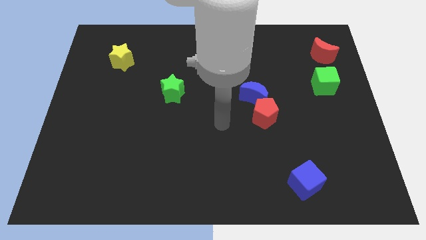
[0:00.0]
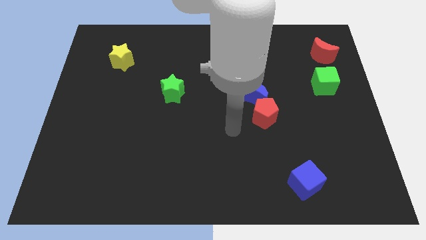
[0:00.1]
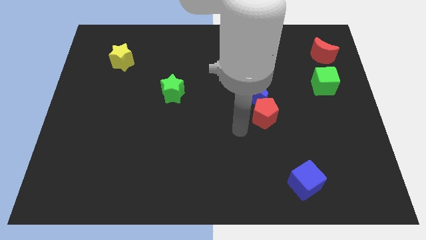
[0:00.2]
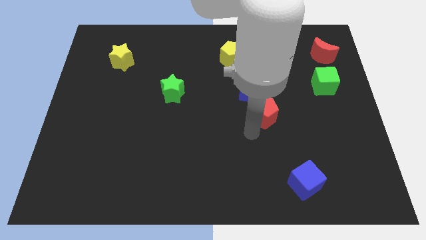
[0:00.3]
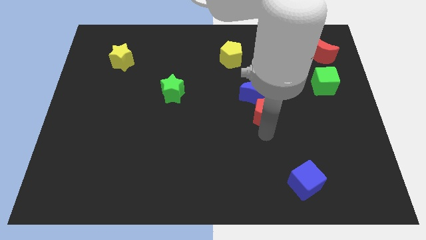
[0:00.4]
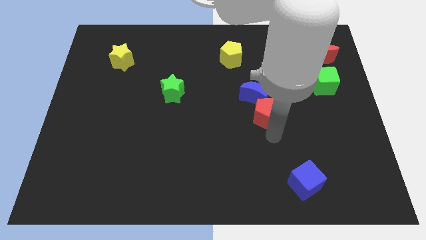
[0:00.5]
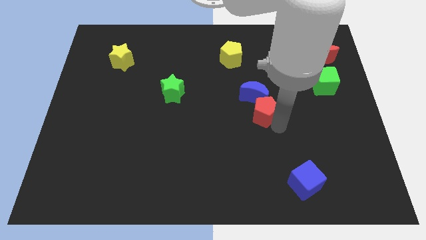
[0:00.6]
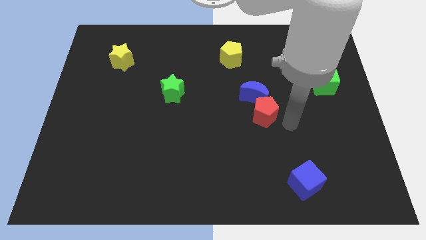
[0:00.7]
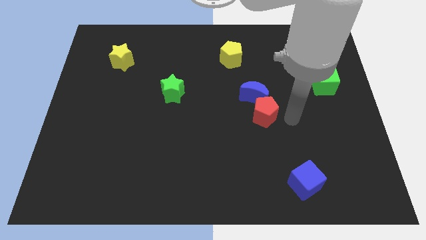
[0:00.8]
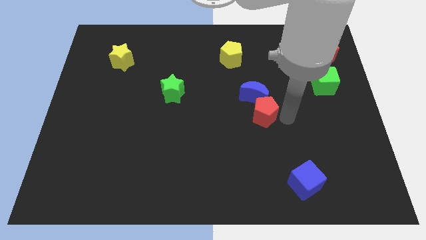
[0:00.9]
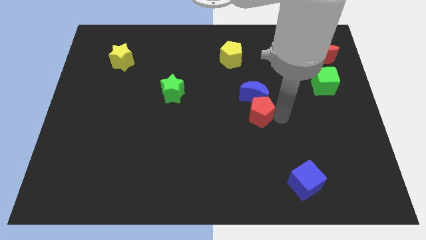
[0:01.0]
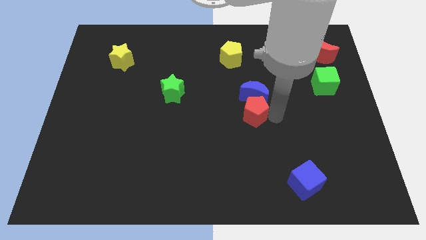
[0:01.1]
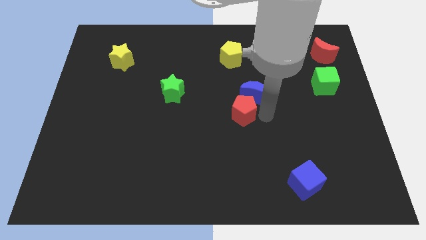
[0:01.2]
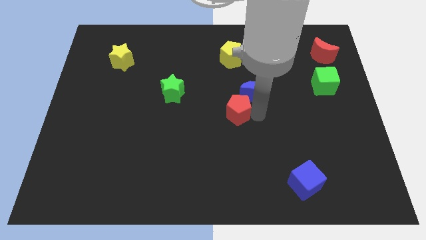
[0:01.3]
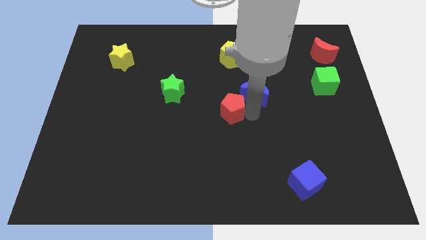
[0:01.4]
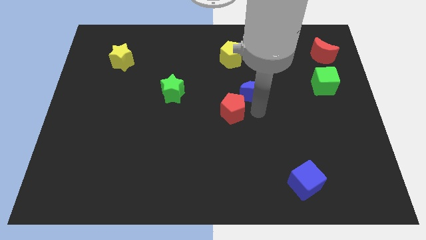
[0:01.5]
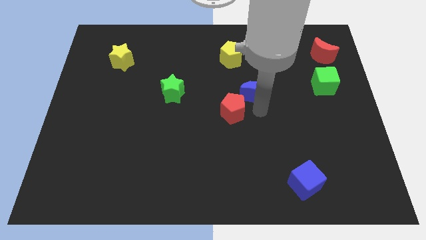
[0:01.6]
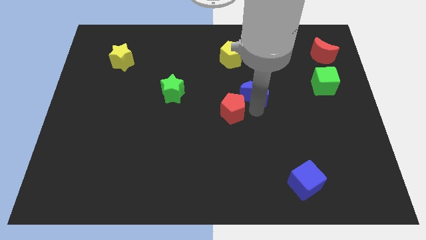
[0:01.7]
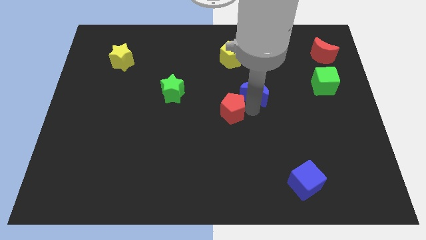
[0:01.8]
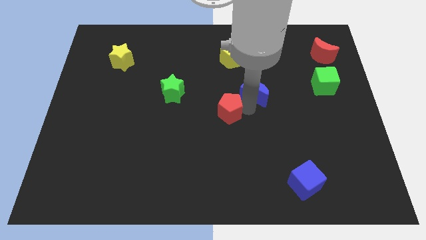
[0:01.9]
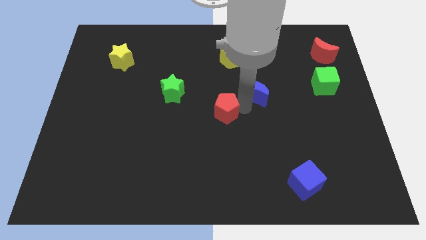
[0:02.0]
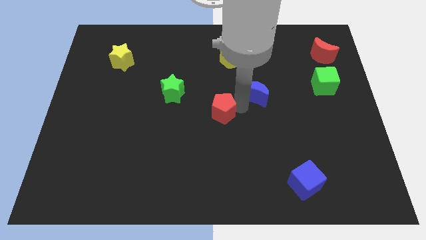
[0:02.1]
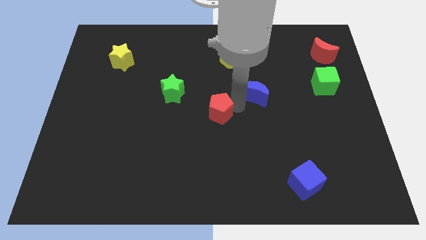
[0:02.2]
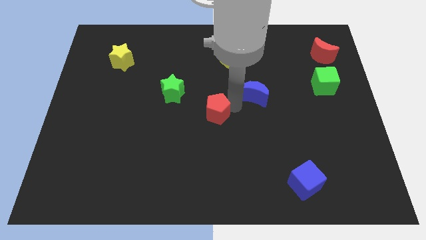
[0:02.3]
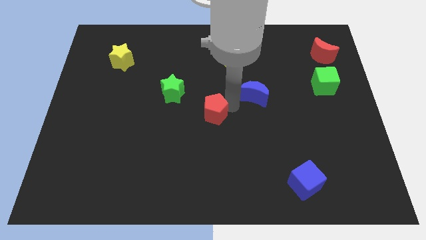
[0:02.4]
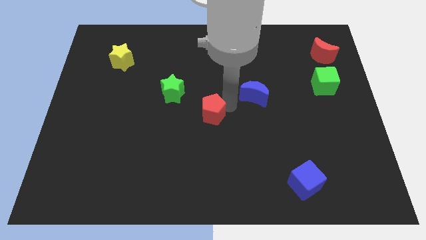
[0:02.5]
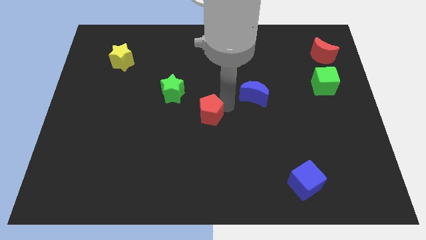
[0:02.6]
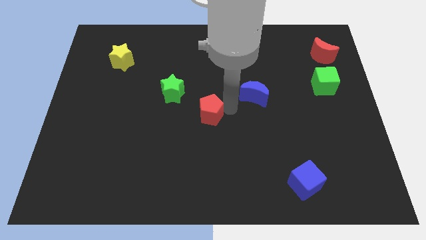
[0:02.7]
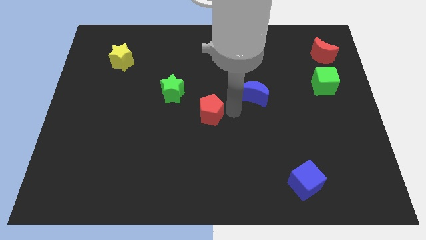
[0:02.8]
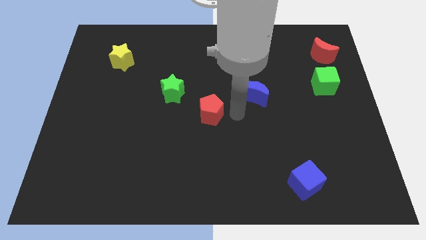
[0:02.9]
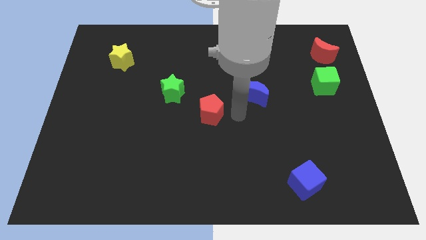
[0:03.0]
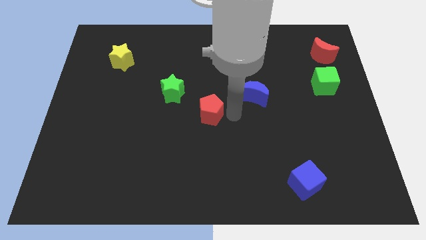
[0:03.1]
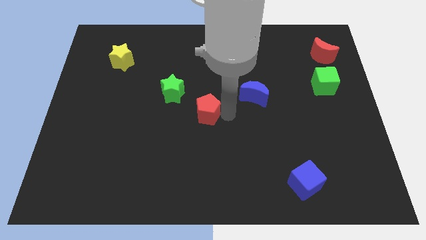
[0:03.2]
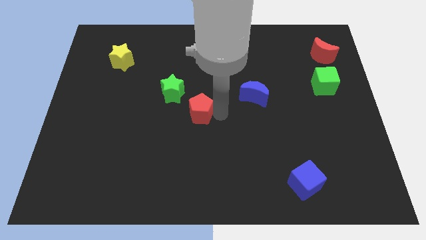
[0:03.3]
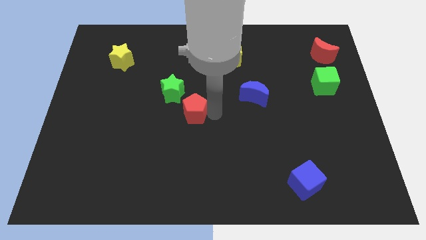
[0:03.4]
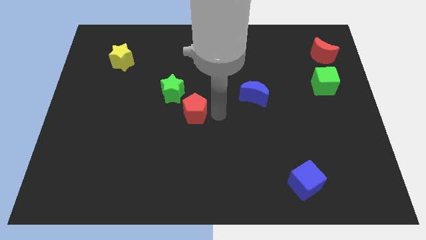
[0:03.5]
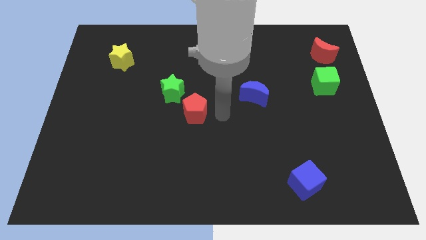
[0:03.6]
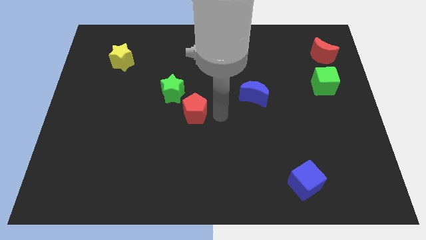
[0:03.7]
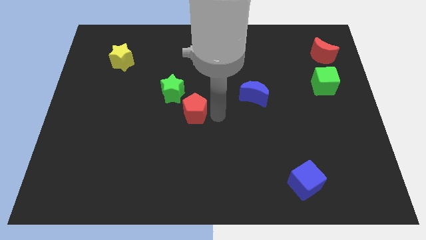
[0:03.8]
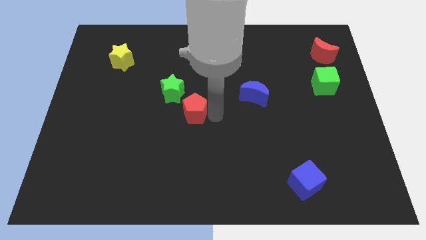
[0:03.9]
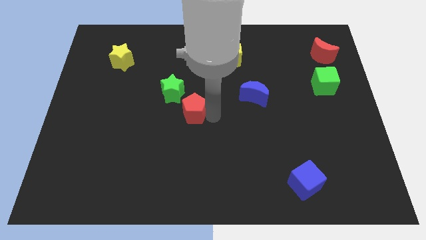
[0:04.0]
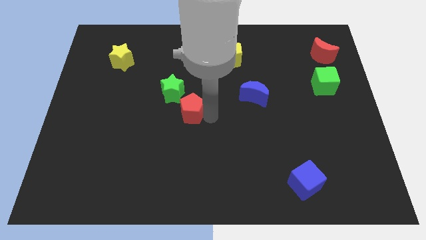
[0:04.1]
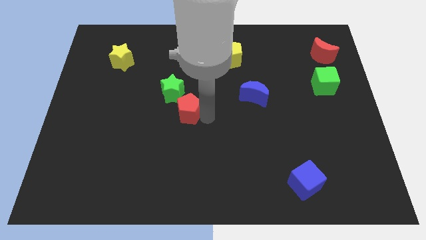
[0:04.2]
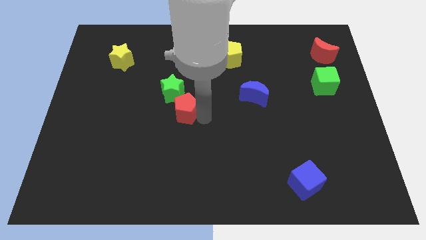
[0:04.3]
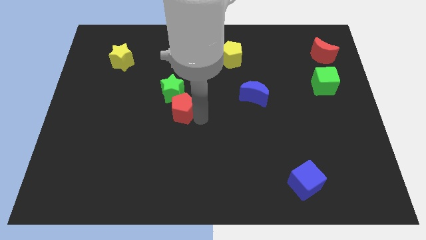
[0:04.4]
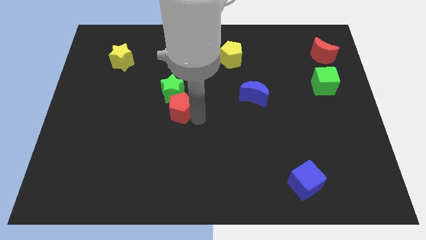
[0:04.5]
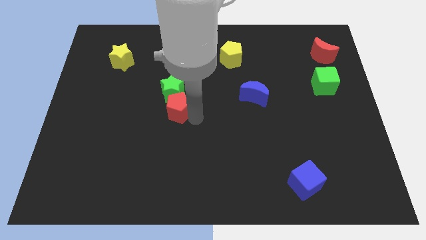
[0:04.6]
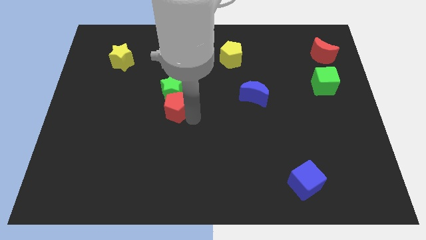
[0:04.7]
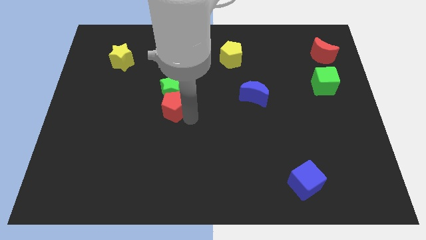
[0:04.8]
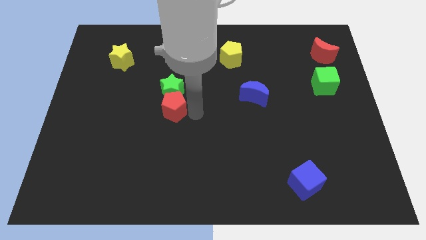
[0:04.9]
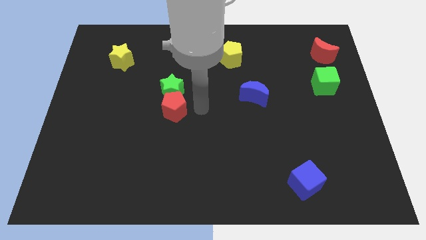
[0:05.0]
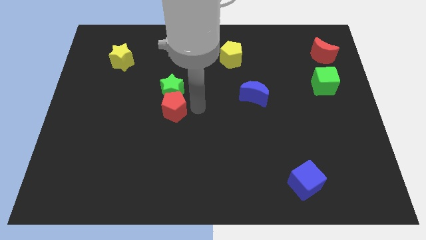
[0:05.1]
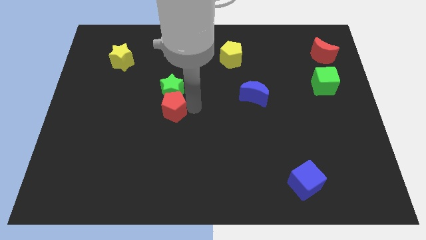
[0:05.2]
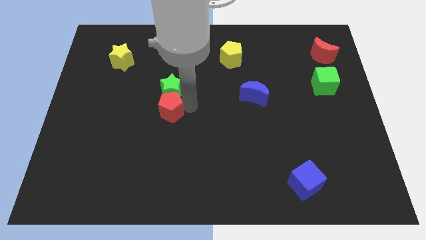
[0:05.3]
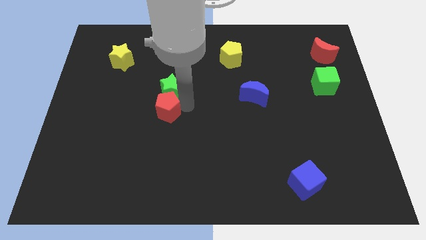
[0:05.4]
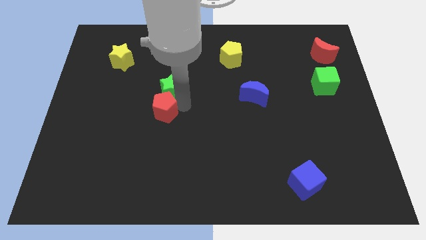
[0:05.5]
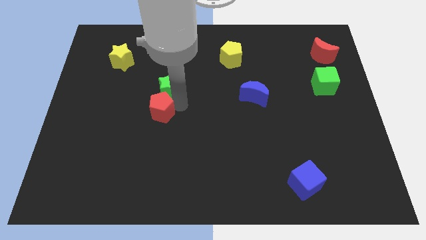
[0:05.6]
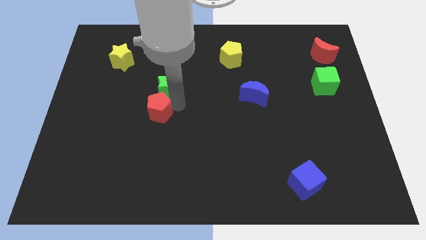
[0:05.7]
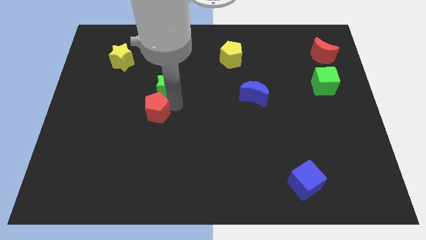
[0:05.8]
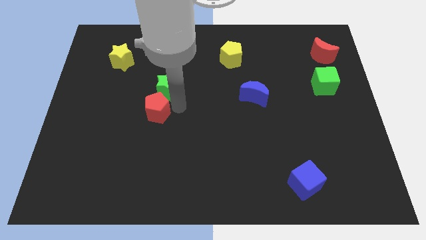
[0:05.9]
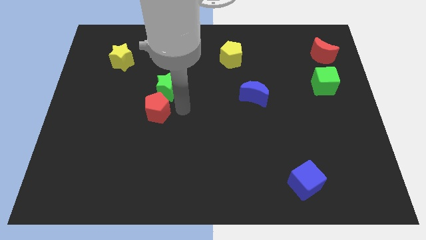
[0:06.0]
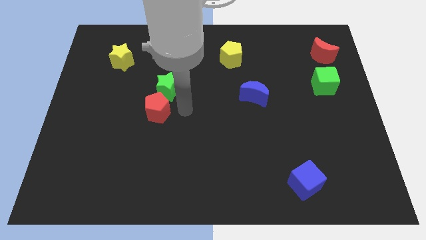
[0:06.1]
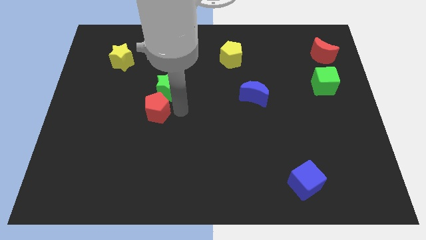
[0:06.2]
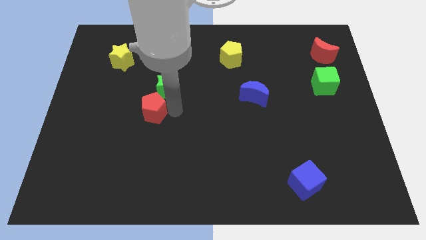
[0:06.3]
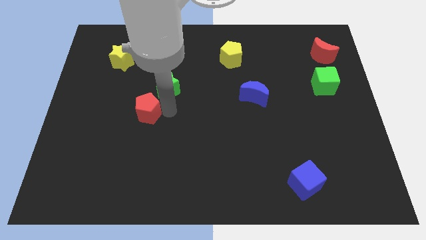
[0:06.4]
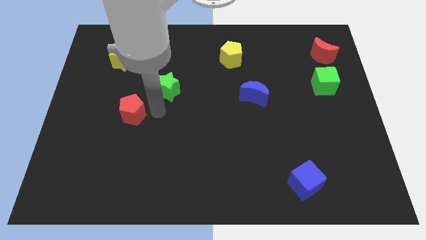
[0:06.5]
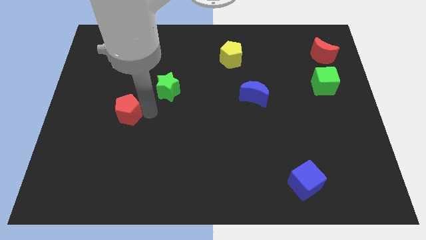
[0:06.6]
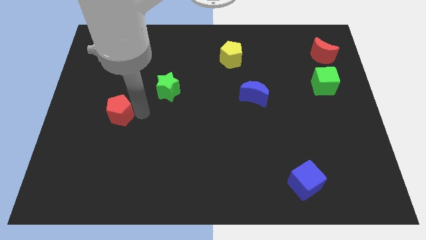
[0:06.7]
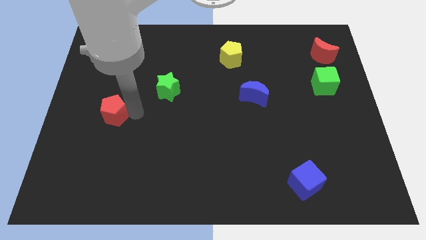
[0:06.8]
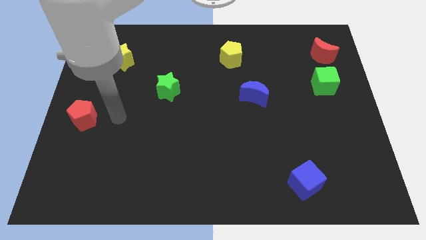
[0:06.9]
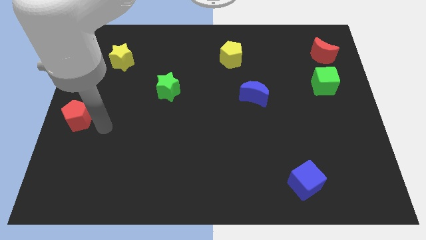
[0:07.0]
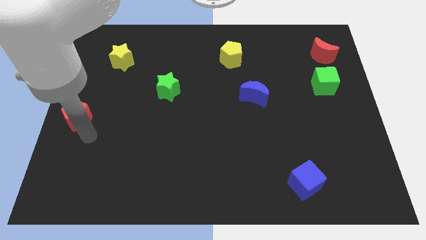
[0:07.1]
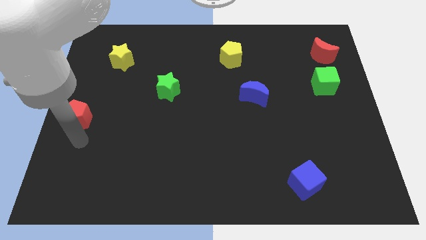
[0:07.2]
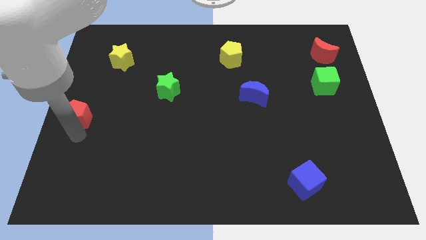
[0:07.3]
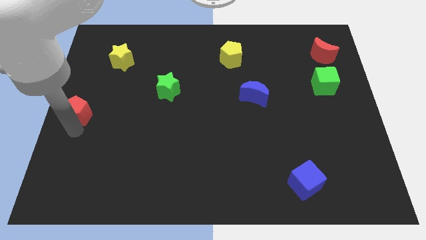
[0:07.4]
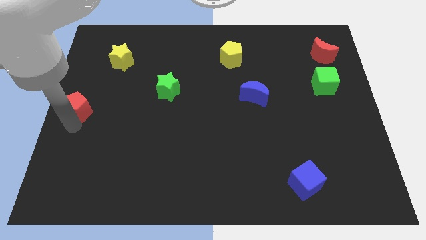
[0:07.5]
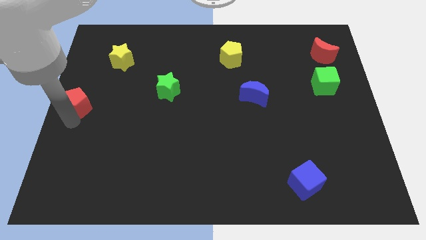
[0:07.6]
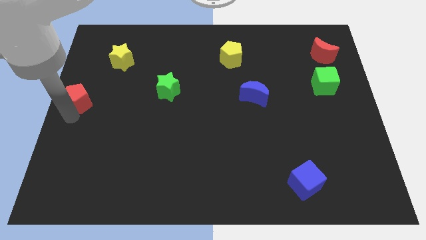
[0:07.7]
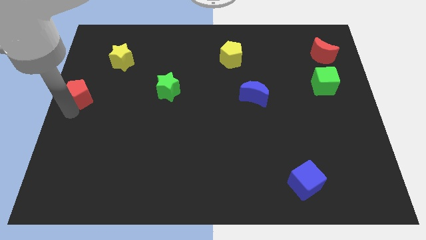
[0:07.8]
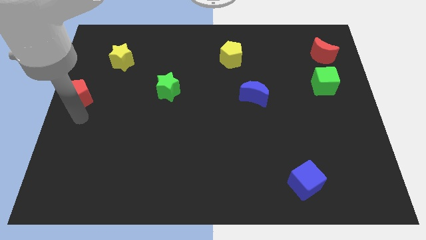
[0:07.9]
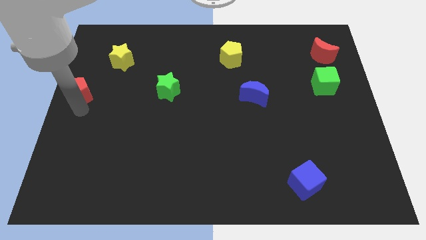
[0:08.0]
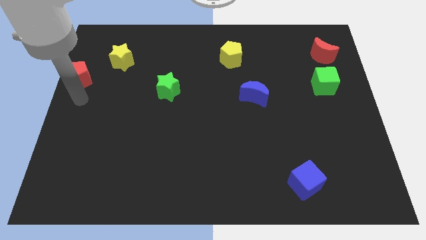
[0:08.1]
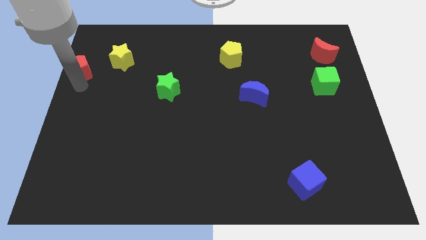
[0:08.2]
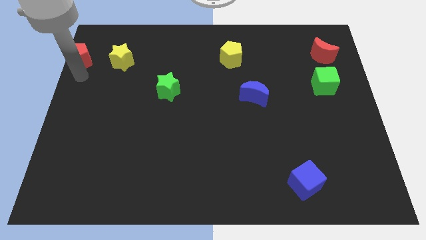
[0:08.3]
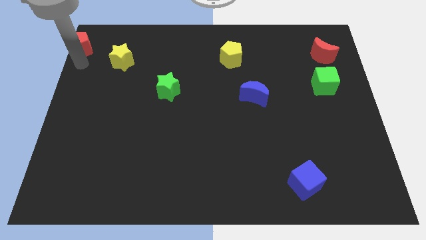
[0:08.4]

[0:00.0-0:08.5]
put the red pentagon to the top left corner
